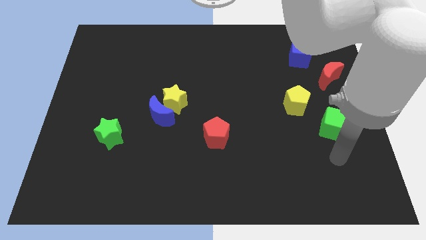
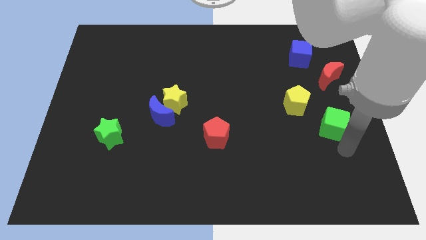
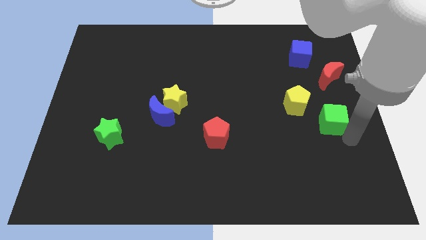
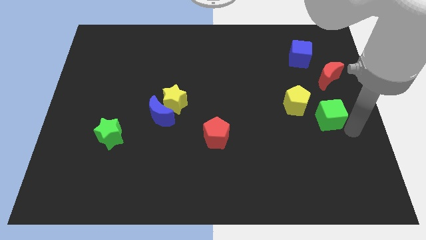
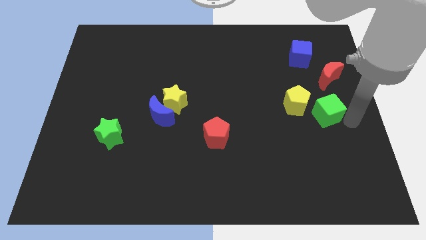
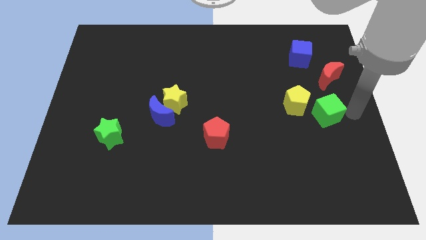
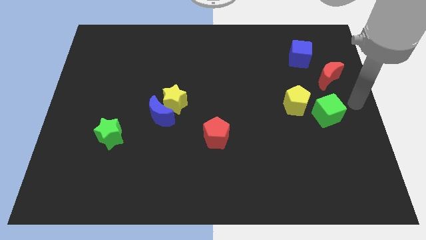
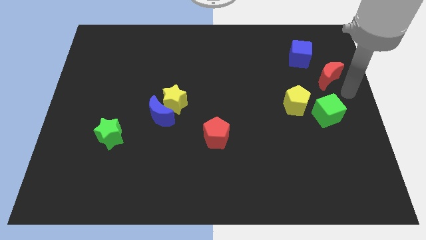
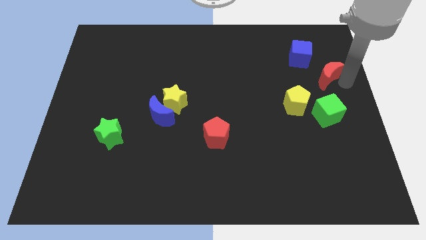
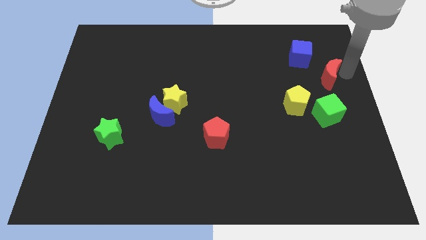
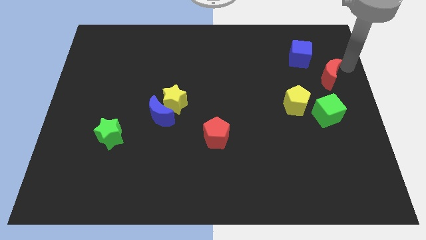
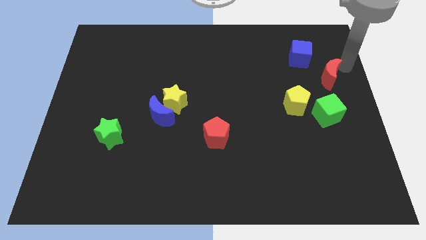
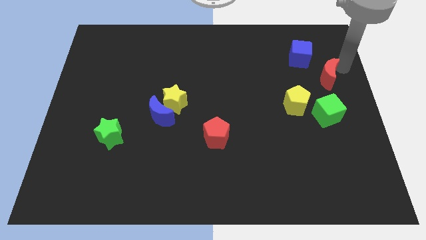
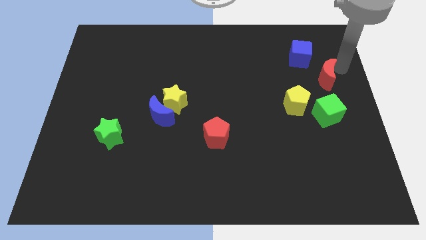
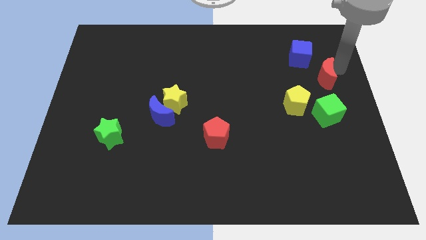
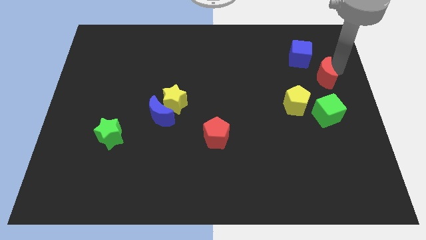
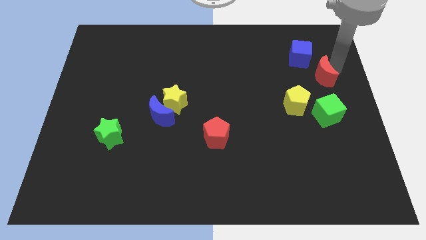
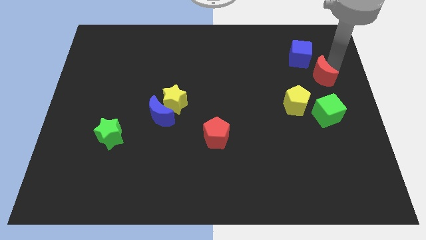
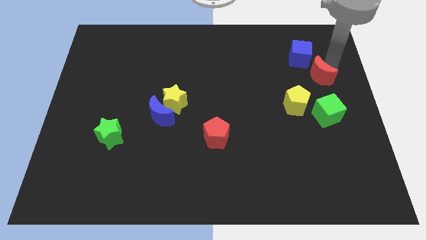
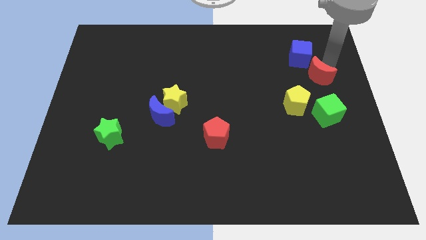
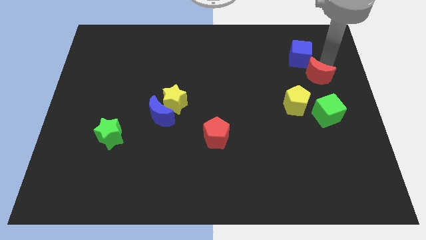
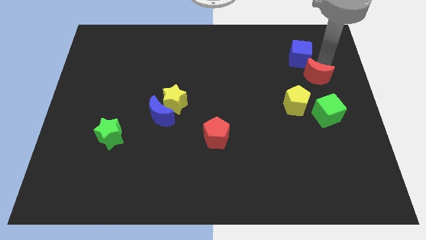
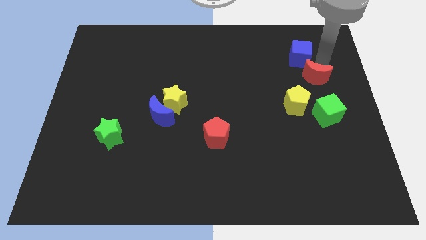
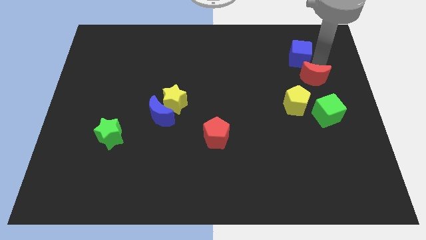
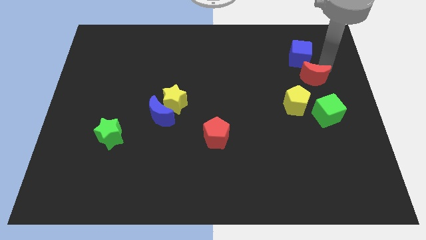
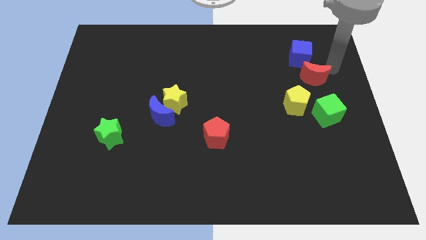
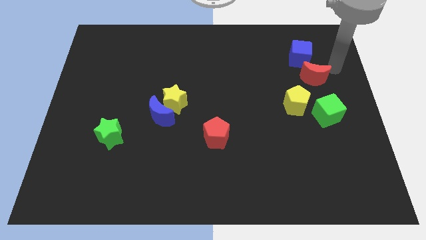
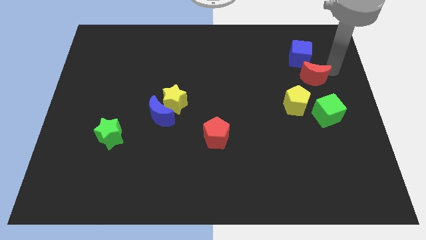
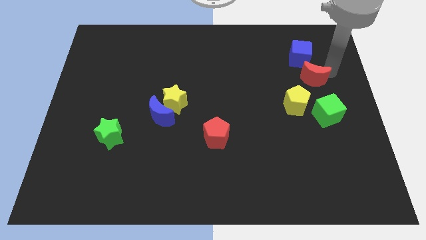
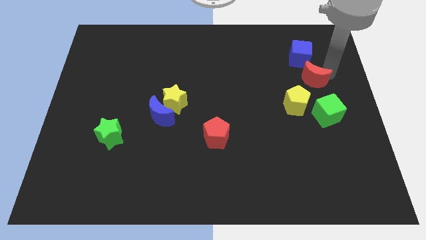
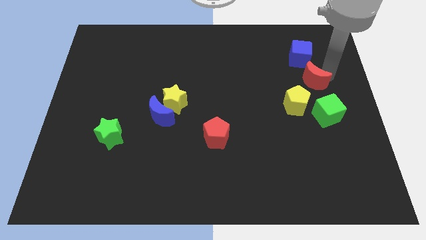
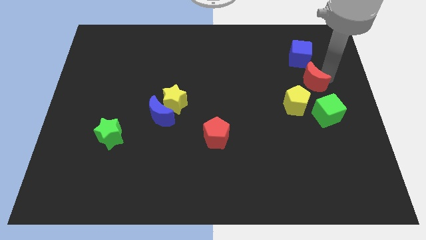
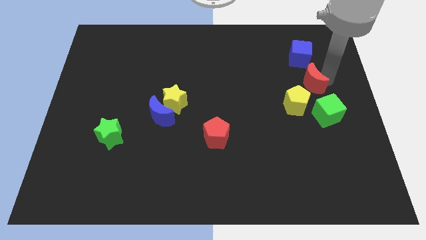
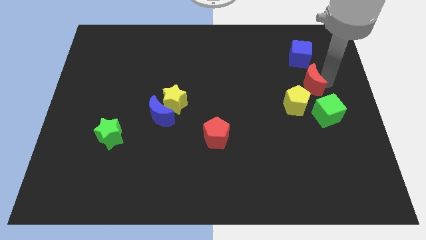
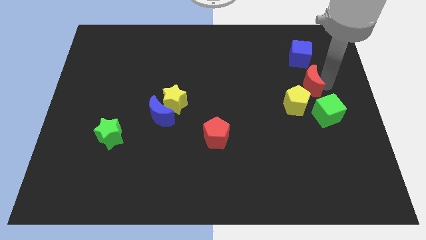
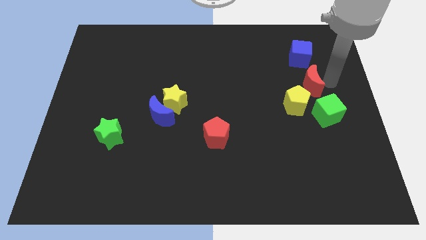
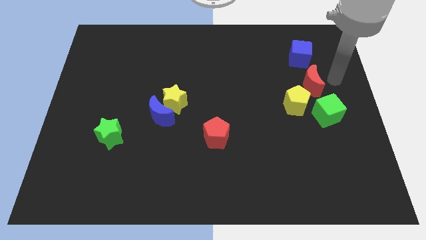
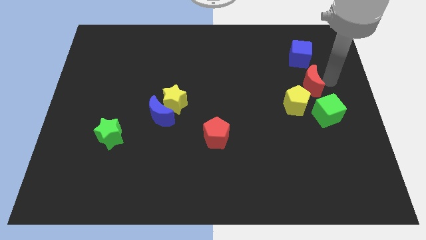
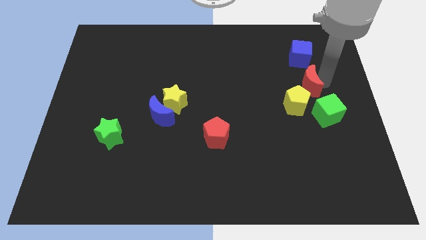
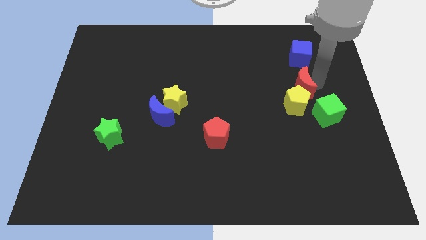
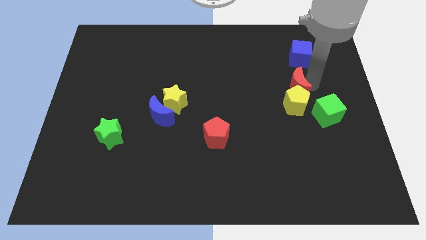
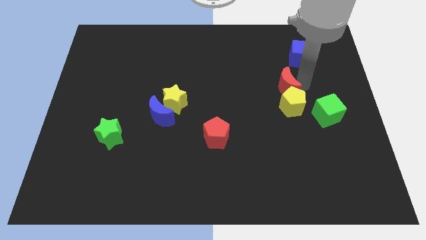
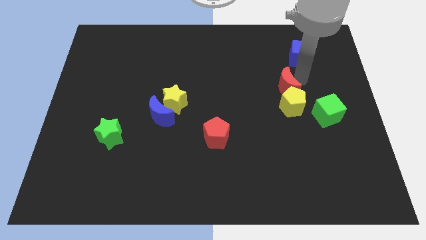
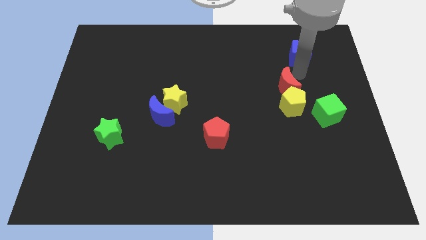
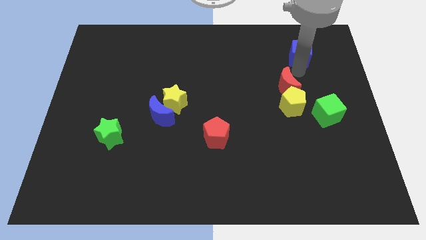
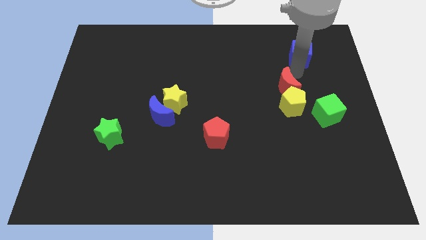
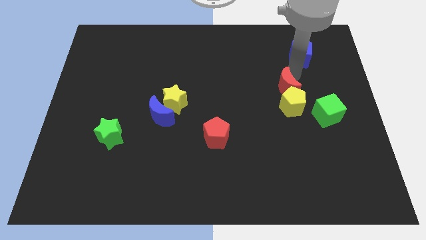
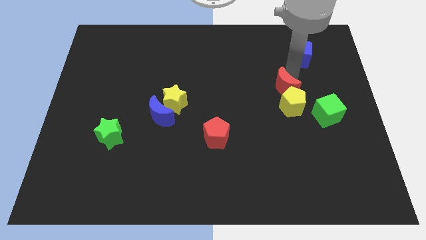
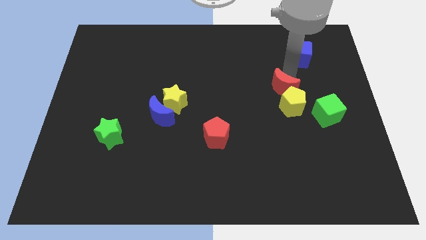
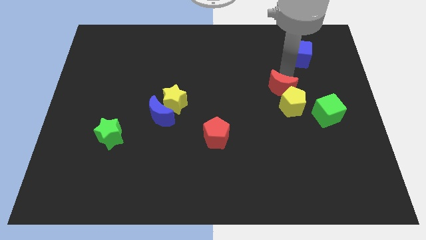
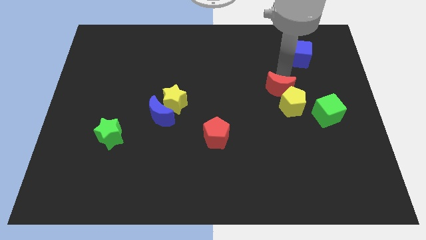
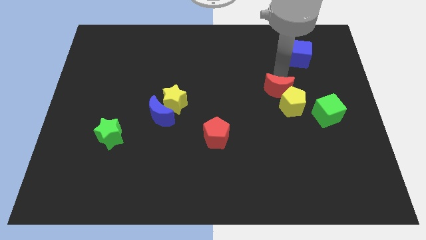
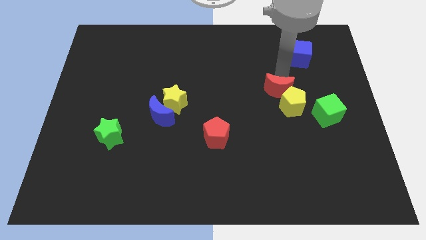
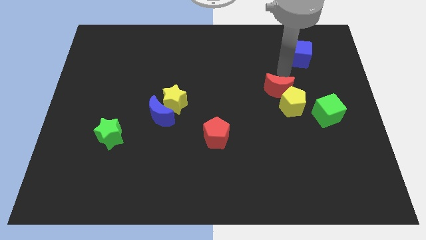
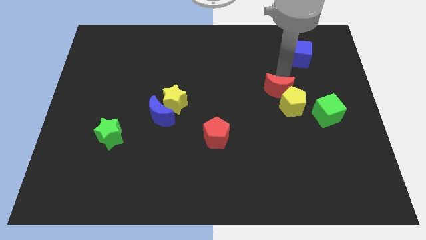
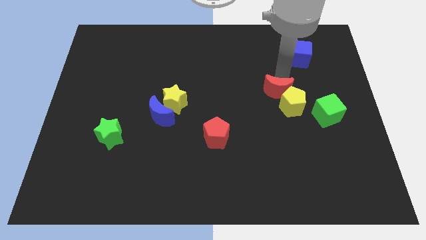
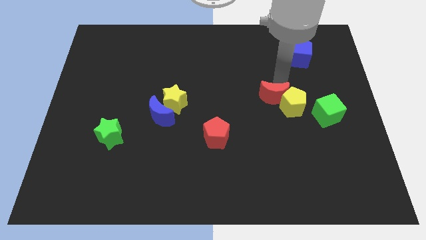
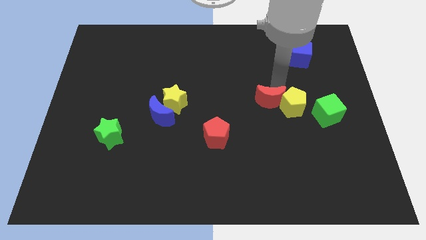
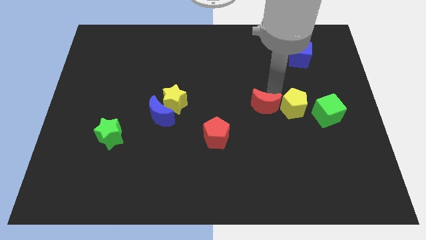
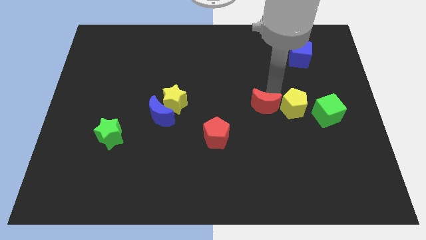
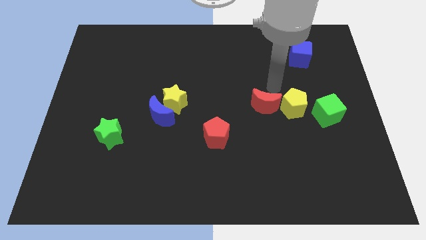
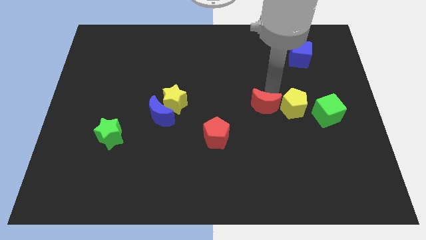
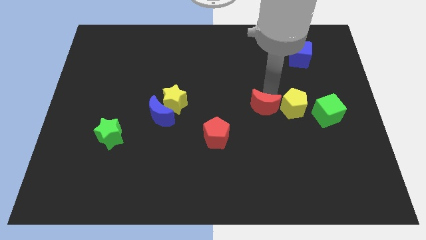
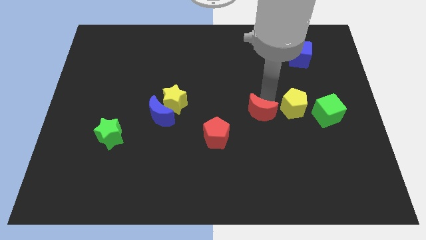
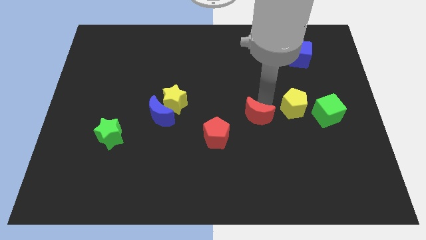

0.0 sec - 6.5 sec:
slide the red moon diagonally downwards and to the left

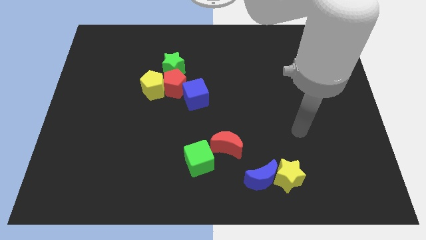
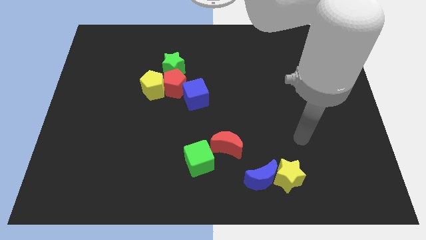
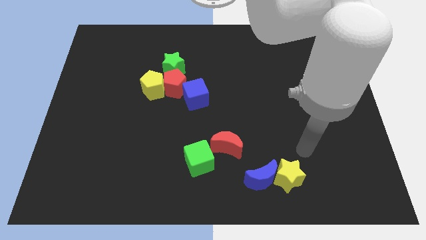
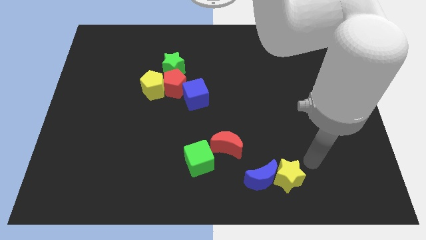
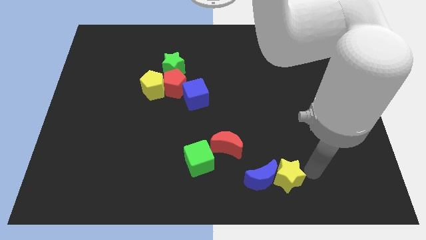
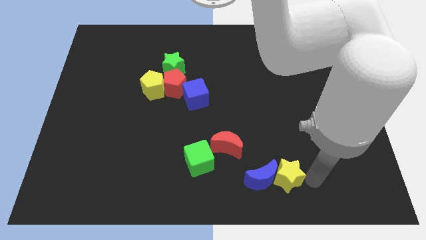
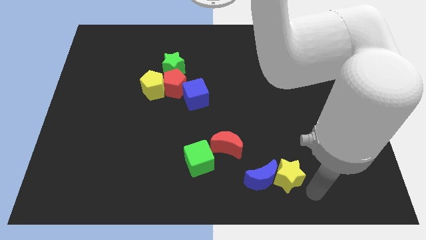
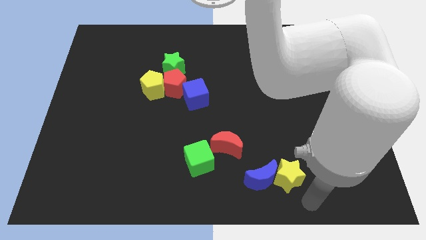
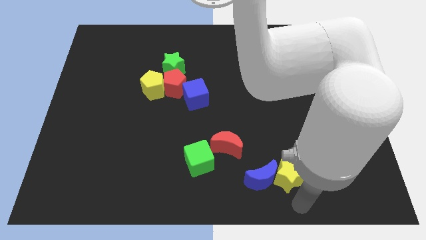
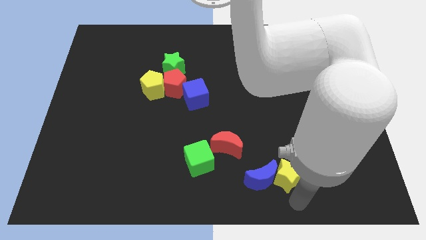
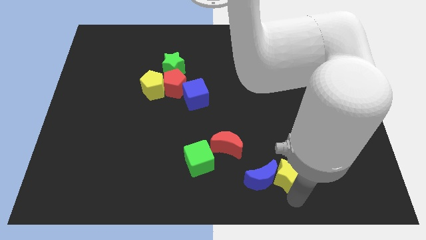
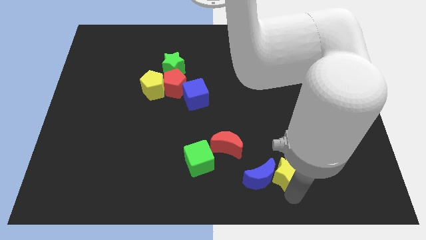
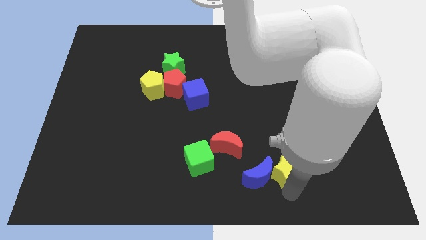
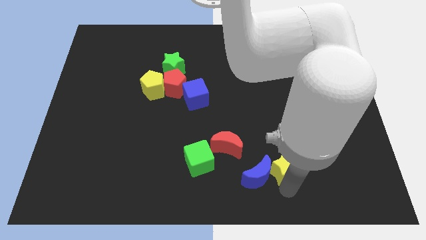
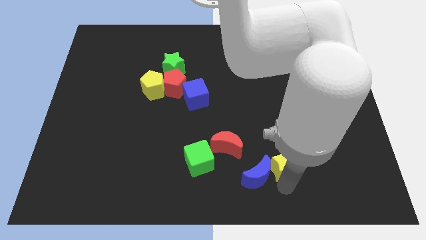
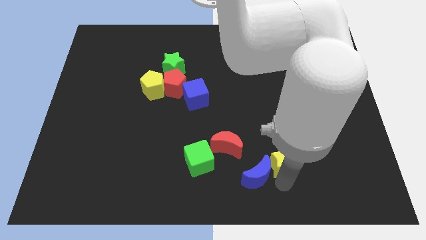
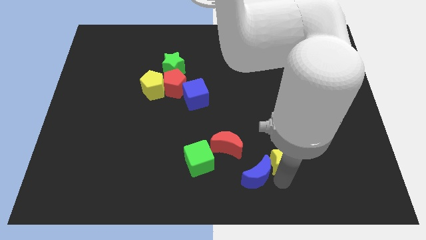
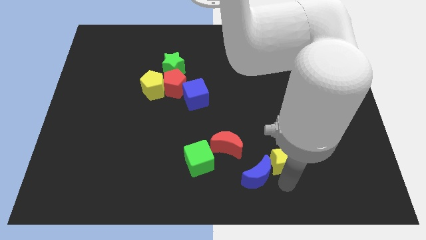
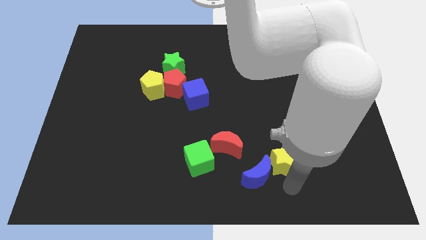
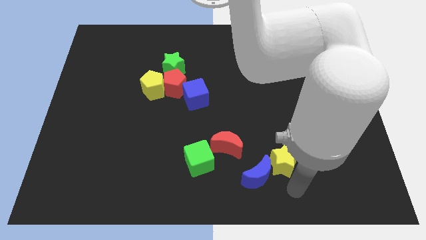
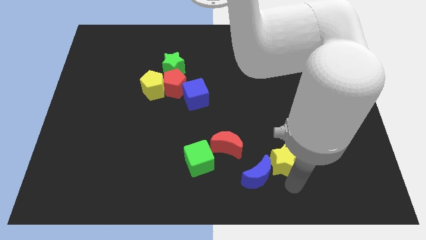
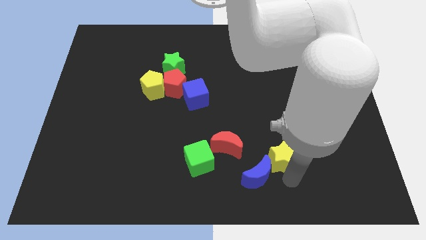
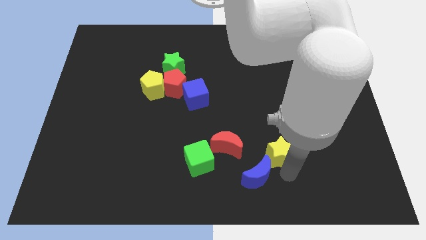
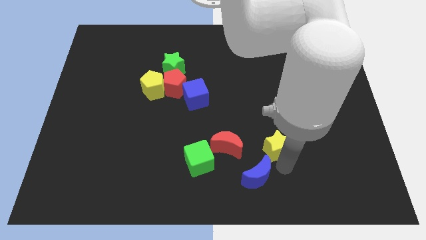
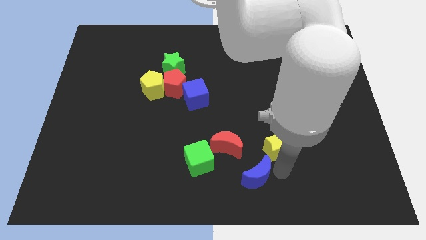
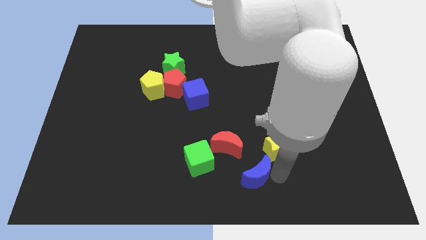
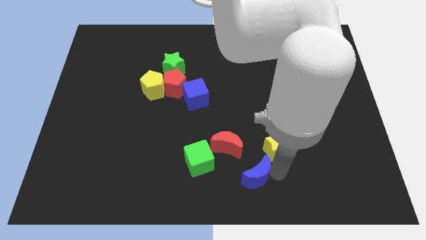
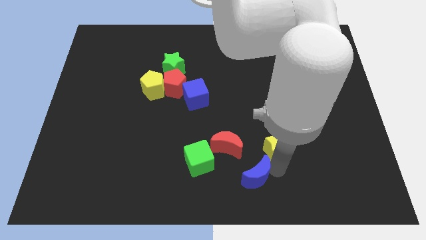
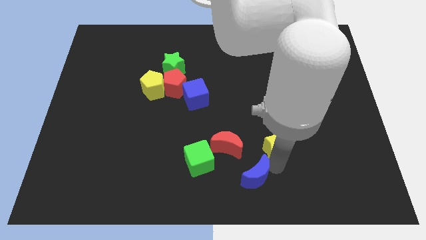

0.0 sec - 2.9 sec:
push the yellow star upwards a bit
